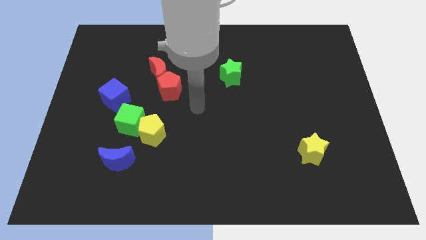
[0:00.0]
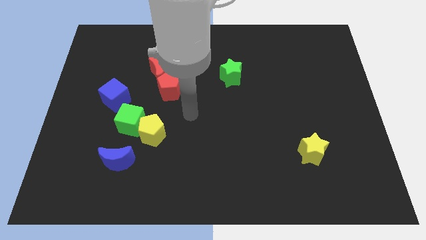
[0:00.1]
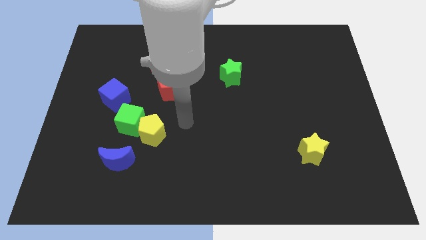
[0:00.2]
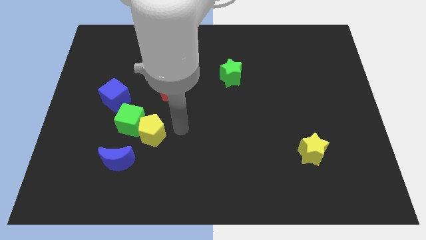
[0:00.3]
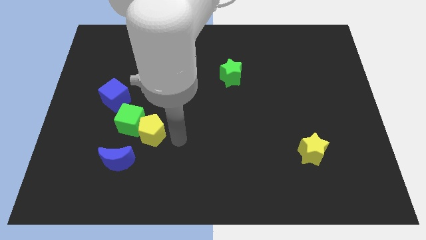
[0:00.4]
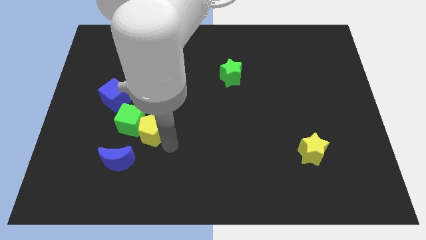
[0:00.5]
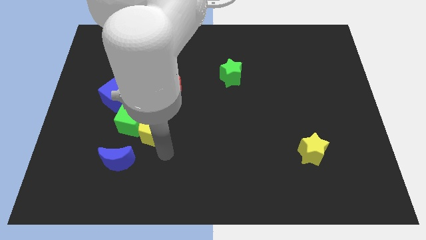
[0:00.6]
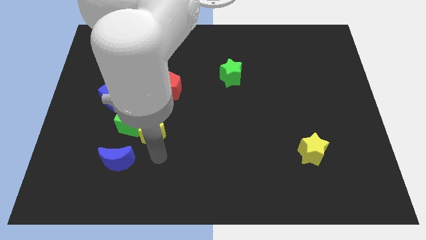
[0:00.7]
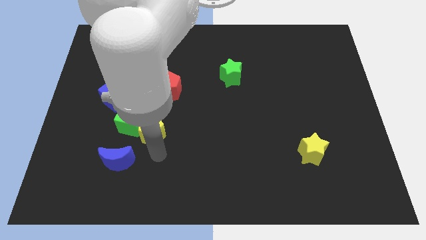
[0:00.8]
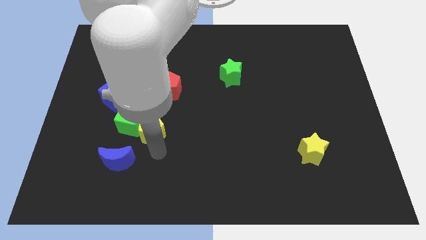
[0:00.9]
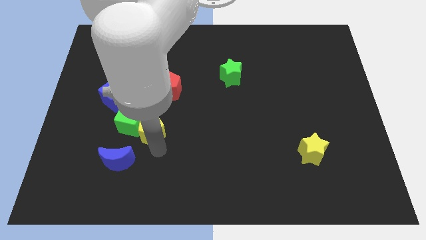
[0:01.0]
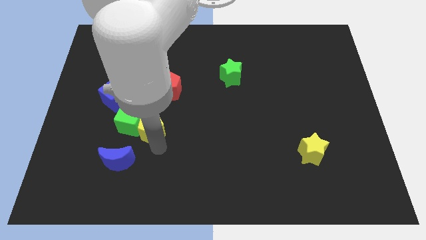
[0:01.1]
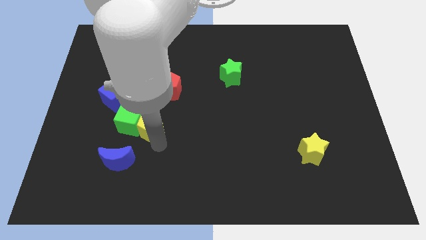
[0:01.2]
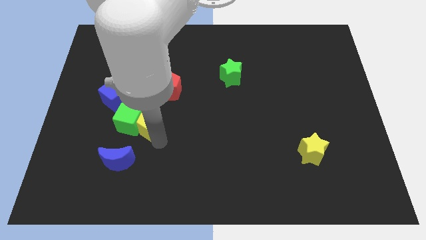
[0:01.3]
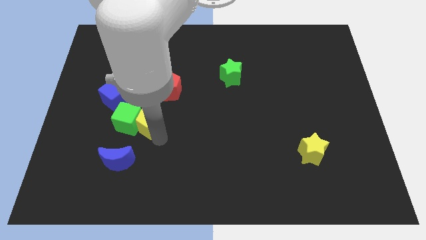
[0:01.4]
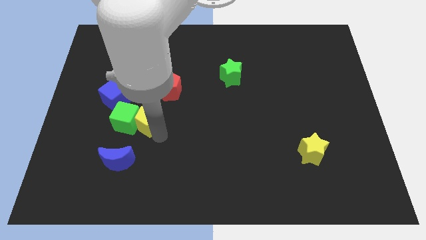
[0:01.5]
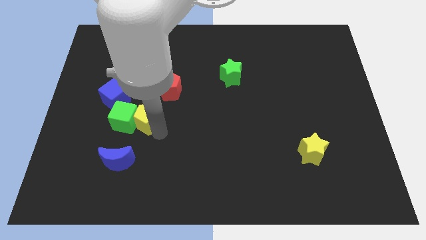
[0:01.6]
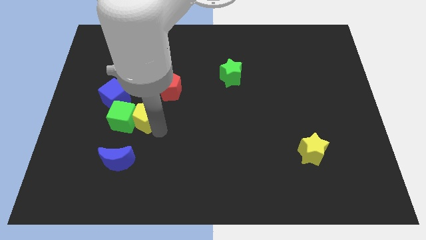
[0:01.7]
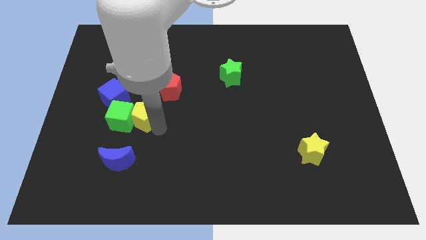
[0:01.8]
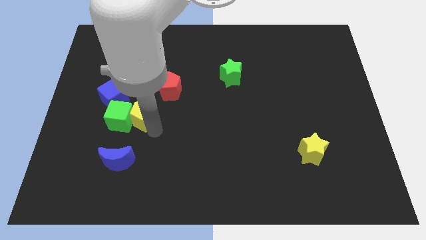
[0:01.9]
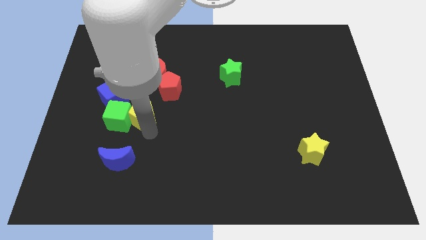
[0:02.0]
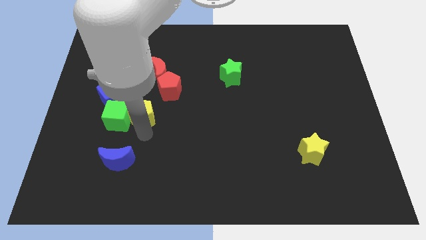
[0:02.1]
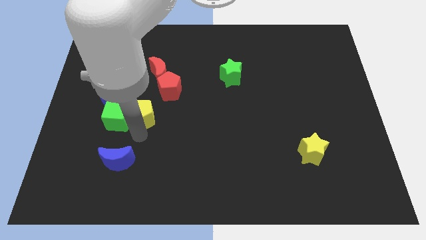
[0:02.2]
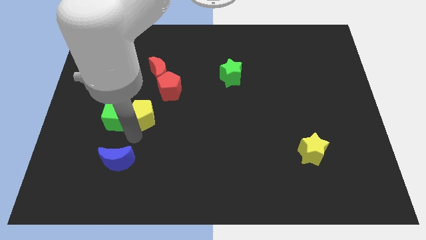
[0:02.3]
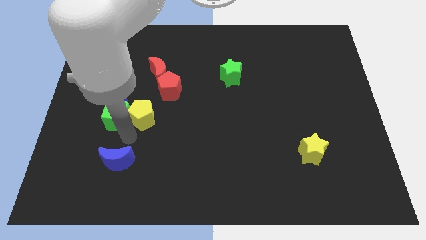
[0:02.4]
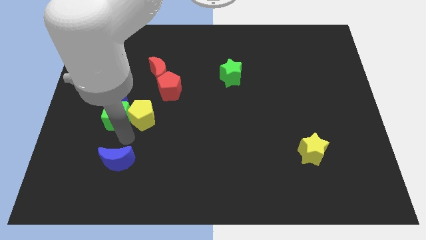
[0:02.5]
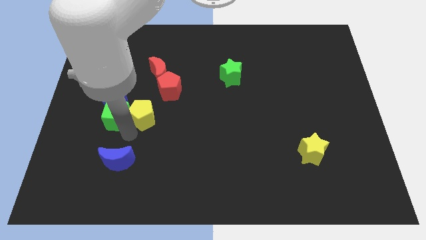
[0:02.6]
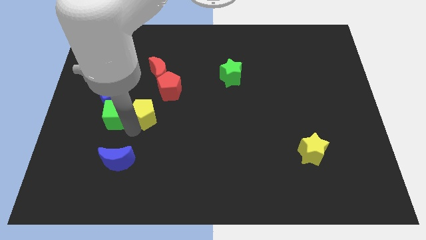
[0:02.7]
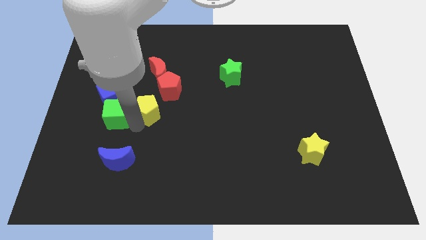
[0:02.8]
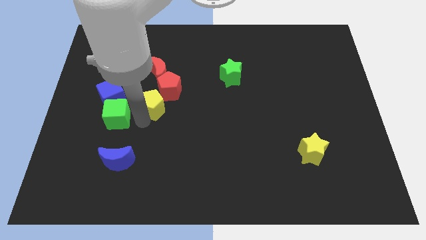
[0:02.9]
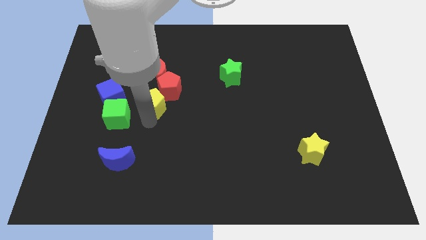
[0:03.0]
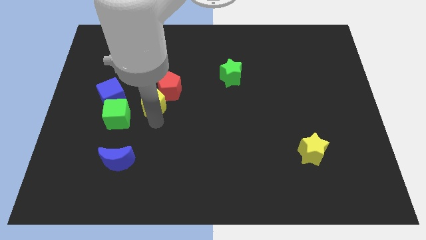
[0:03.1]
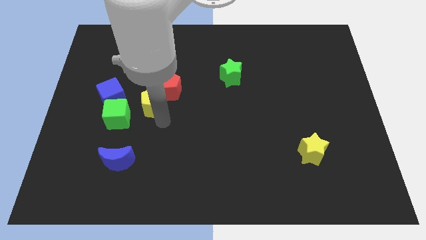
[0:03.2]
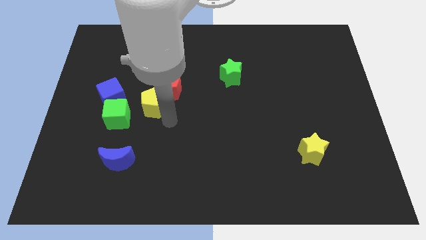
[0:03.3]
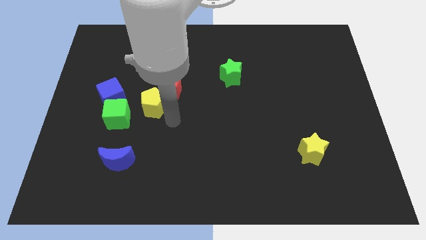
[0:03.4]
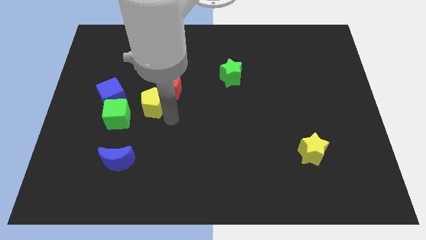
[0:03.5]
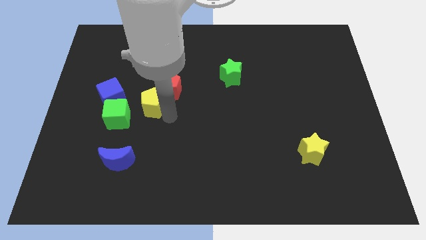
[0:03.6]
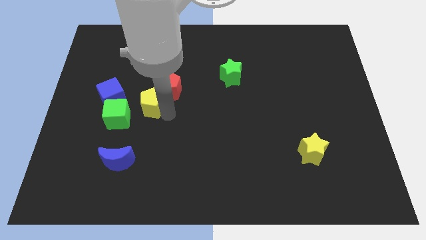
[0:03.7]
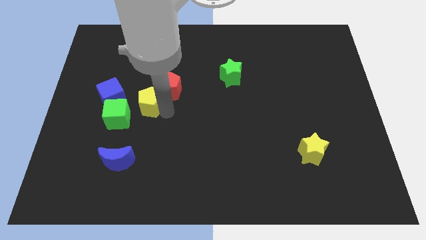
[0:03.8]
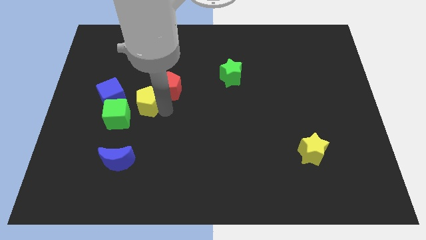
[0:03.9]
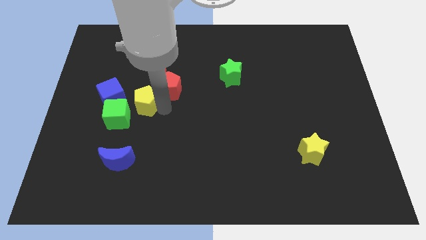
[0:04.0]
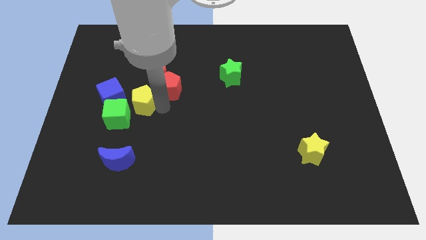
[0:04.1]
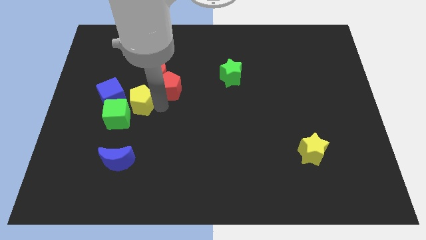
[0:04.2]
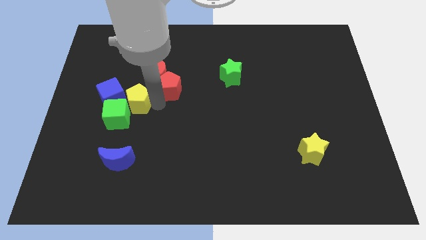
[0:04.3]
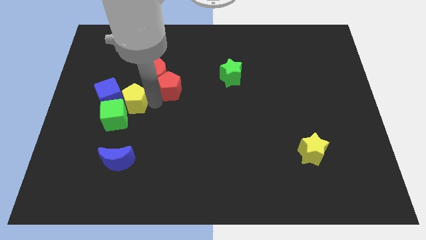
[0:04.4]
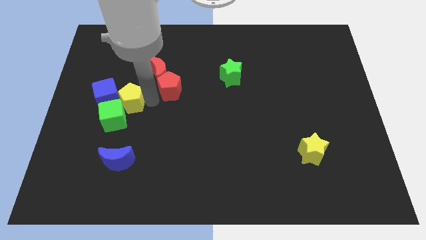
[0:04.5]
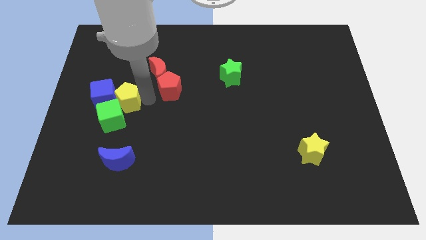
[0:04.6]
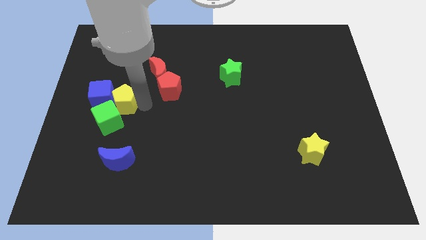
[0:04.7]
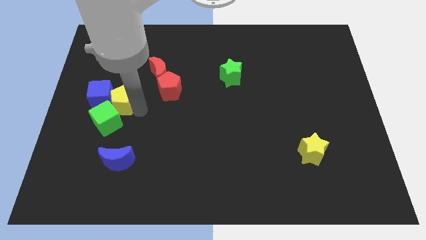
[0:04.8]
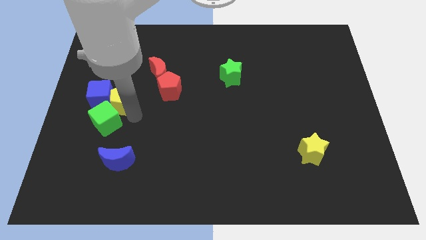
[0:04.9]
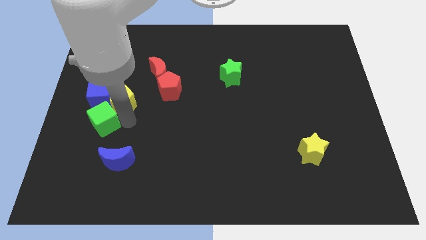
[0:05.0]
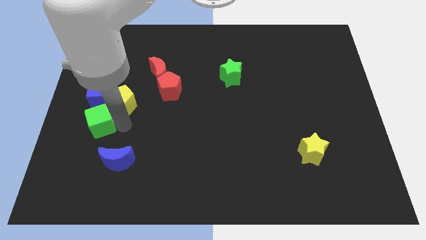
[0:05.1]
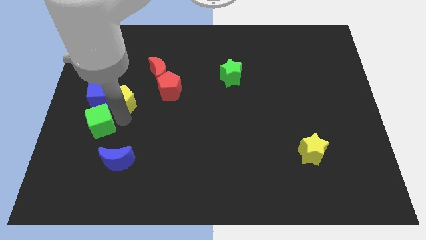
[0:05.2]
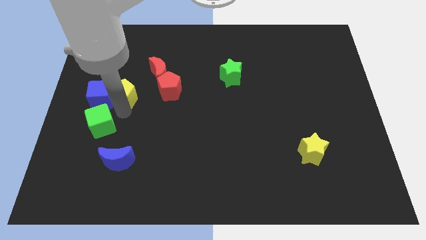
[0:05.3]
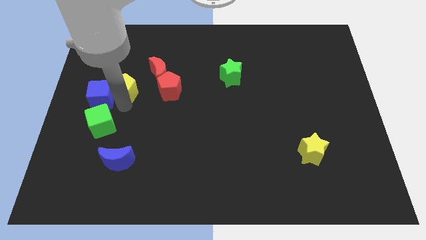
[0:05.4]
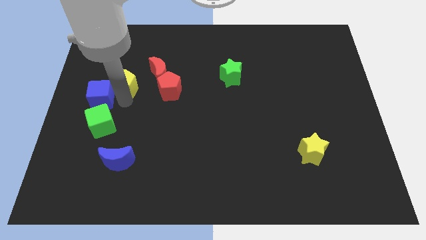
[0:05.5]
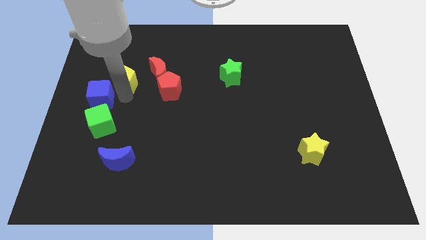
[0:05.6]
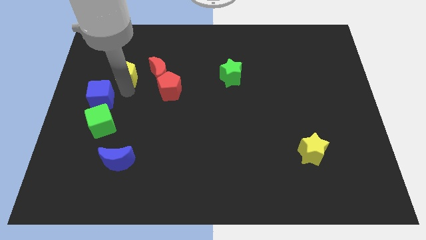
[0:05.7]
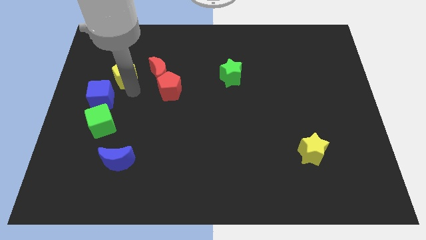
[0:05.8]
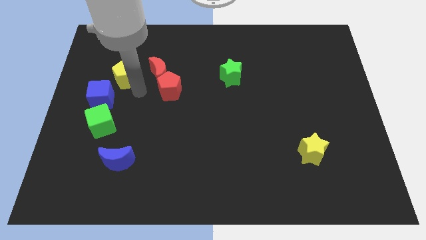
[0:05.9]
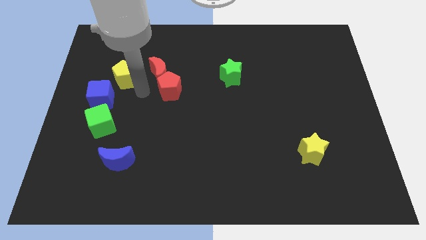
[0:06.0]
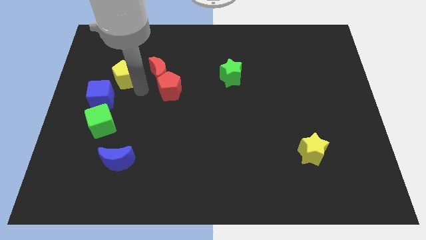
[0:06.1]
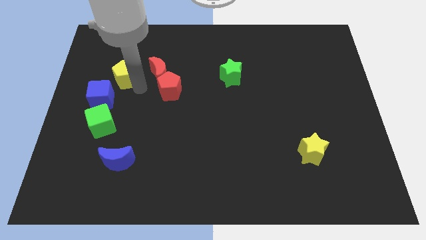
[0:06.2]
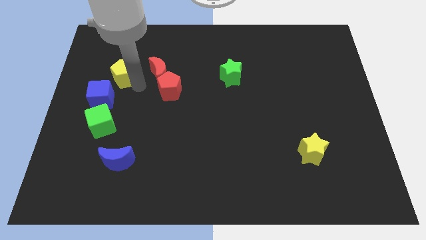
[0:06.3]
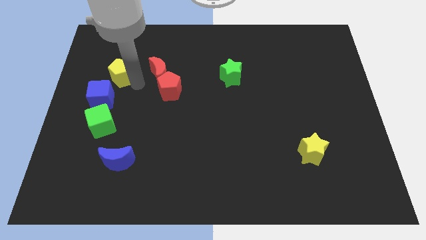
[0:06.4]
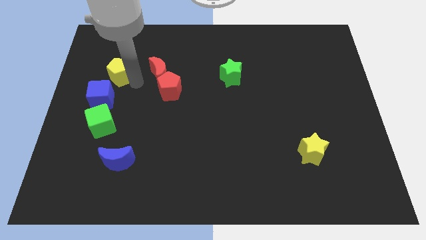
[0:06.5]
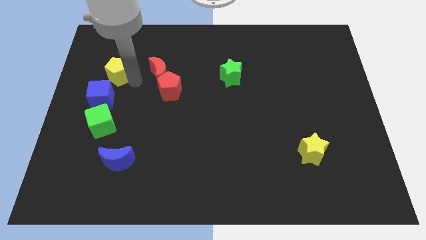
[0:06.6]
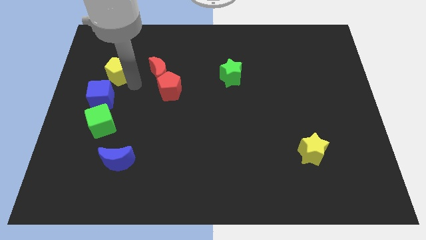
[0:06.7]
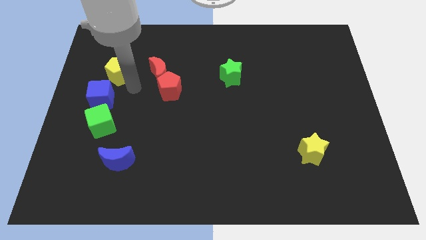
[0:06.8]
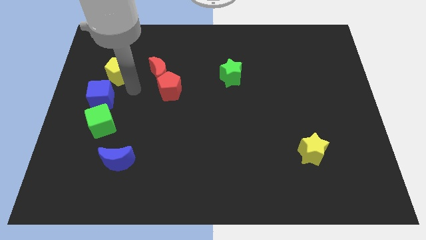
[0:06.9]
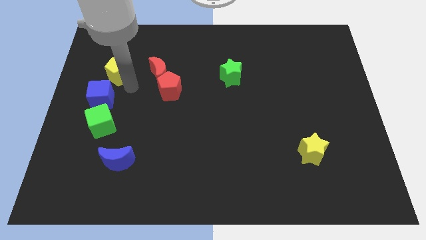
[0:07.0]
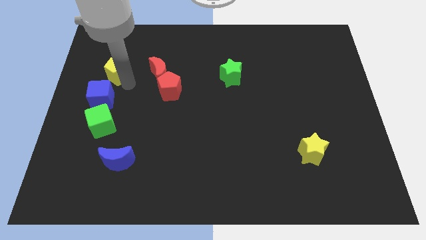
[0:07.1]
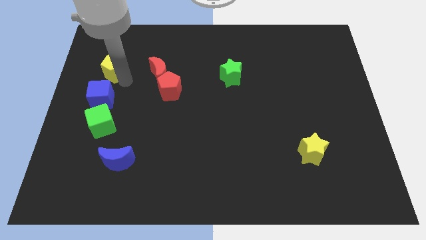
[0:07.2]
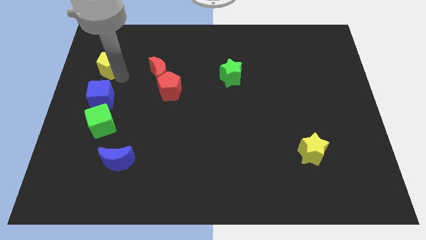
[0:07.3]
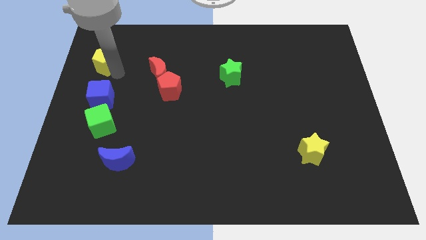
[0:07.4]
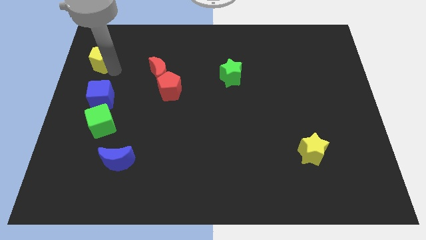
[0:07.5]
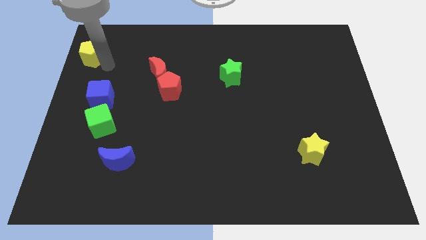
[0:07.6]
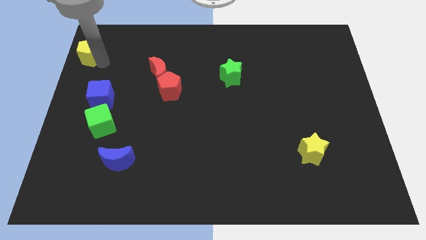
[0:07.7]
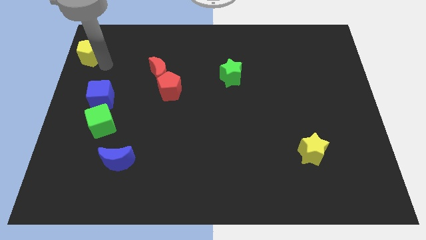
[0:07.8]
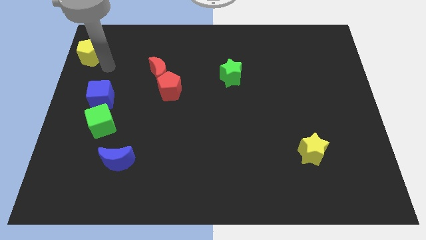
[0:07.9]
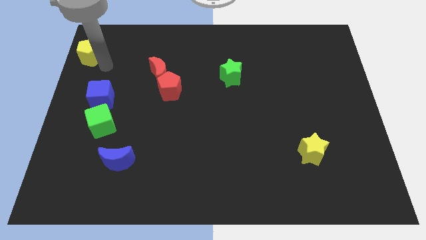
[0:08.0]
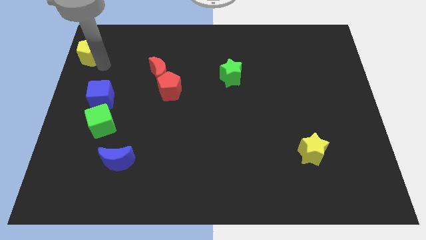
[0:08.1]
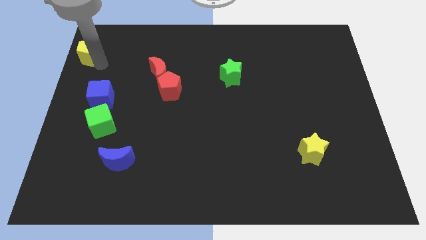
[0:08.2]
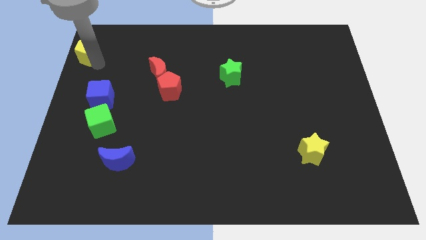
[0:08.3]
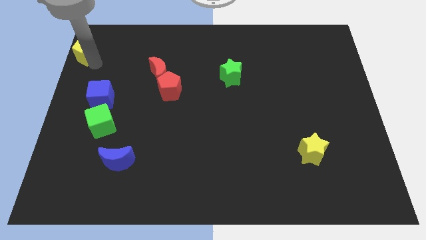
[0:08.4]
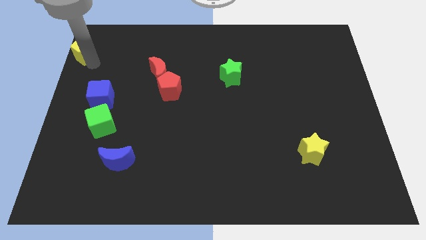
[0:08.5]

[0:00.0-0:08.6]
move the yellow pentagon to the upper left corner
